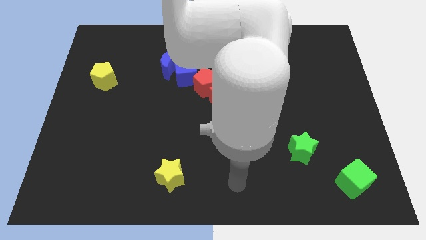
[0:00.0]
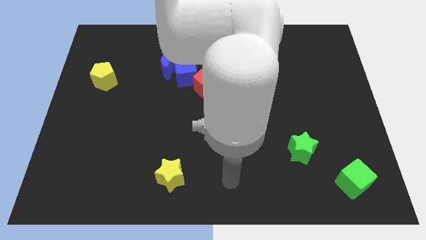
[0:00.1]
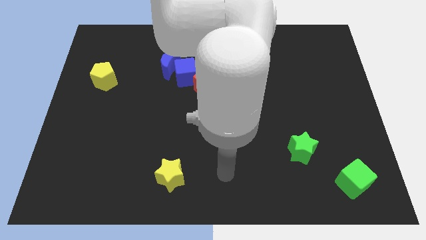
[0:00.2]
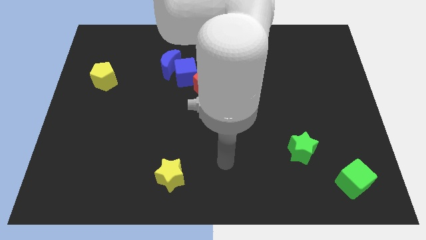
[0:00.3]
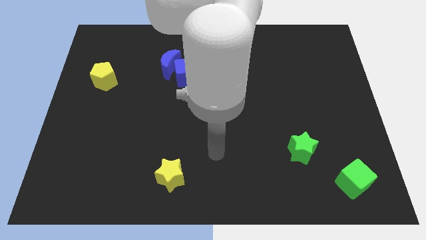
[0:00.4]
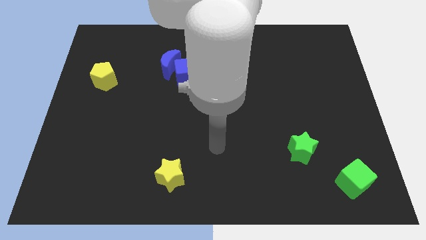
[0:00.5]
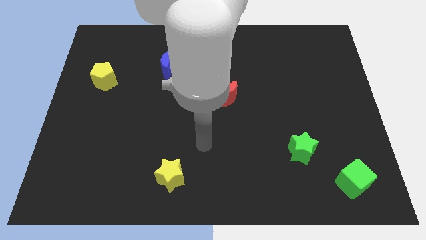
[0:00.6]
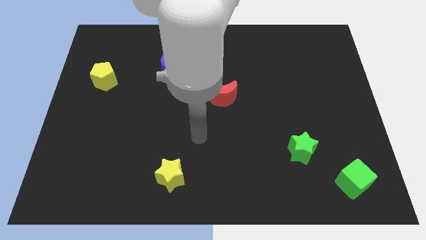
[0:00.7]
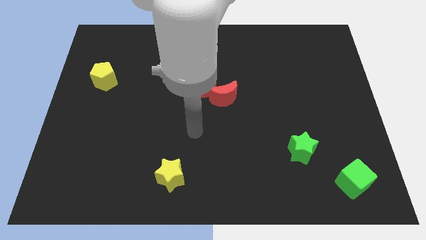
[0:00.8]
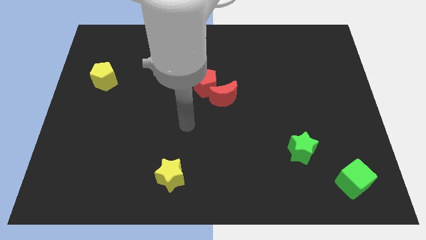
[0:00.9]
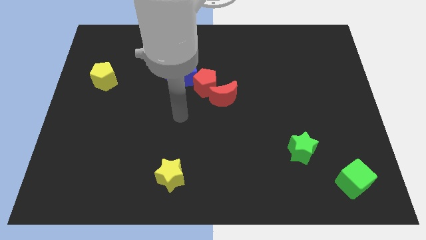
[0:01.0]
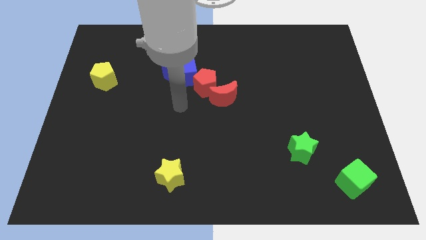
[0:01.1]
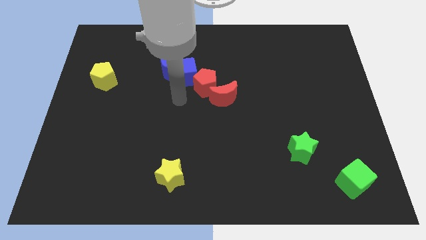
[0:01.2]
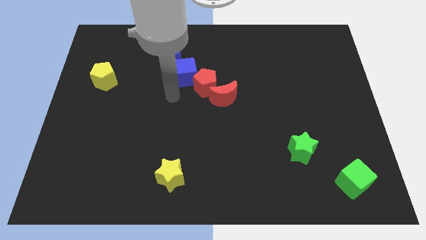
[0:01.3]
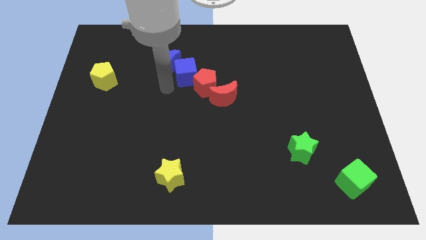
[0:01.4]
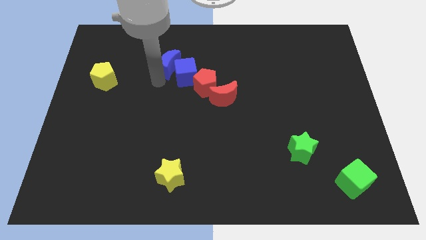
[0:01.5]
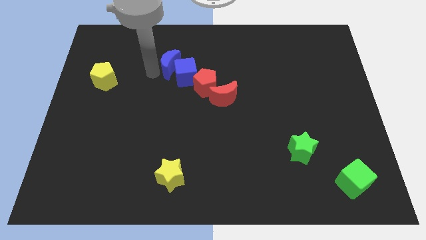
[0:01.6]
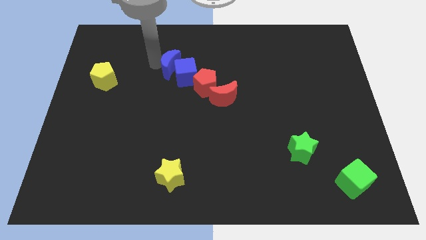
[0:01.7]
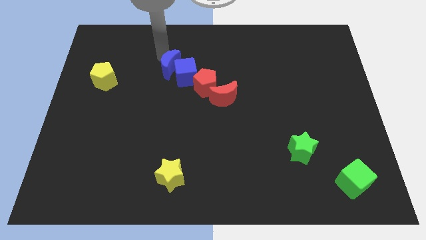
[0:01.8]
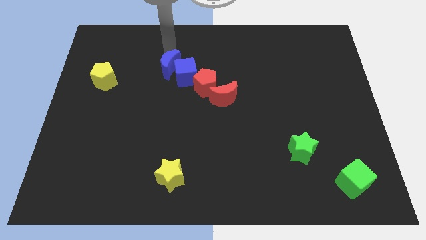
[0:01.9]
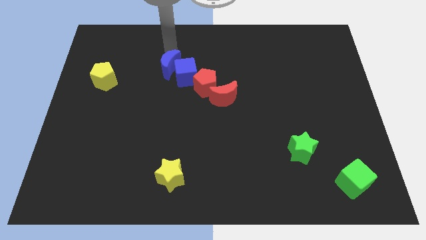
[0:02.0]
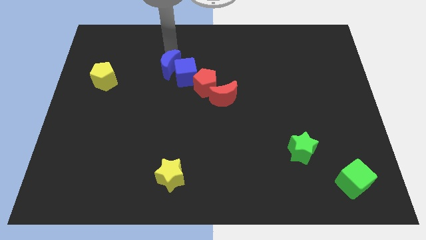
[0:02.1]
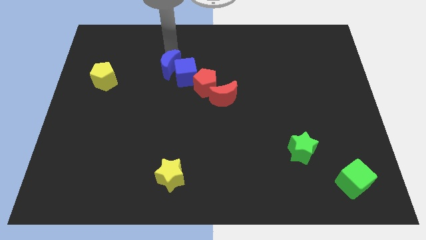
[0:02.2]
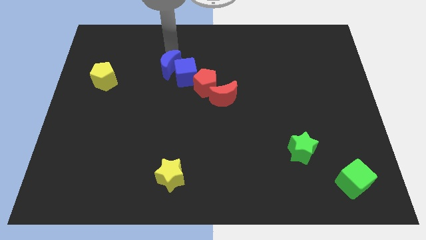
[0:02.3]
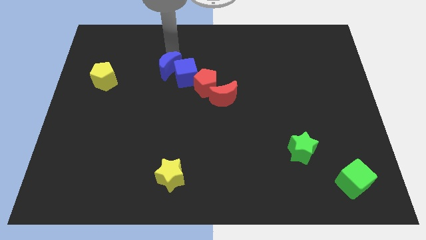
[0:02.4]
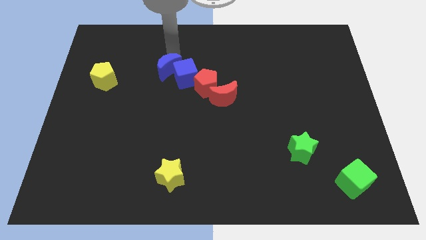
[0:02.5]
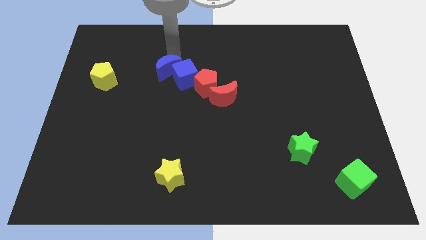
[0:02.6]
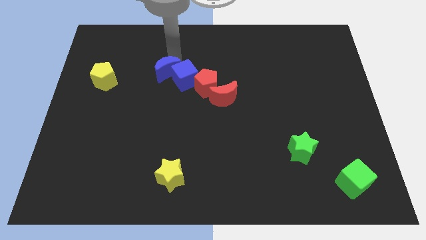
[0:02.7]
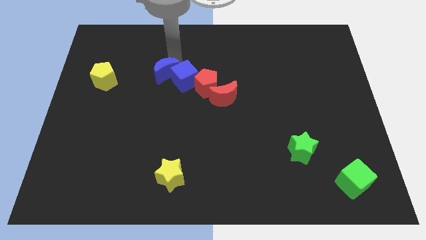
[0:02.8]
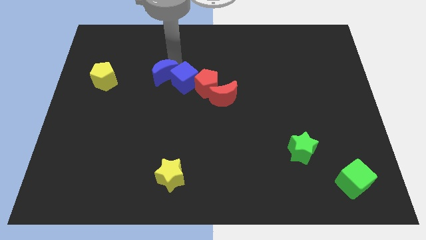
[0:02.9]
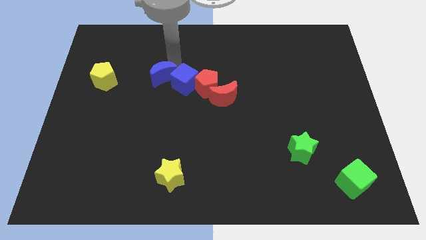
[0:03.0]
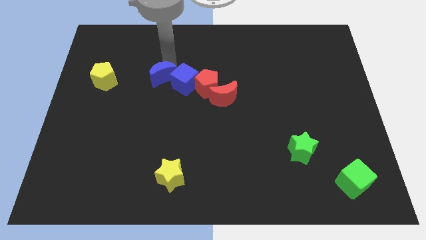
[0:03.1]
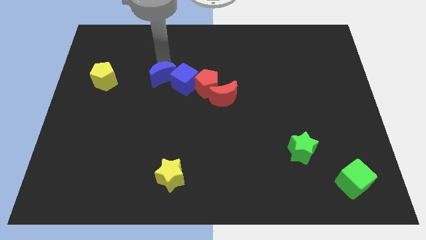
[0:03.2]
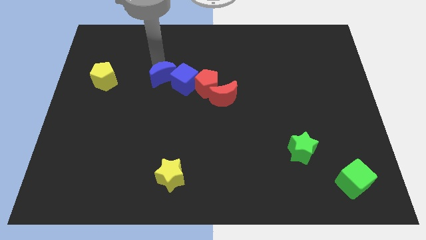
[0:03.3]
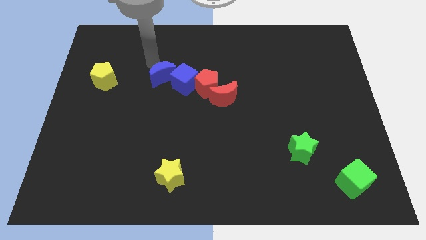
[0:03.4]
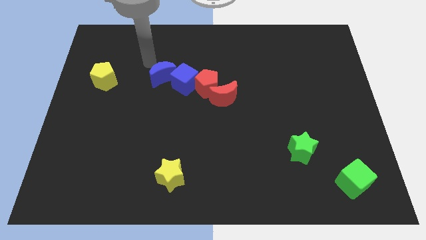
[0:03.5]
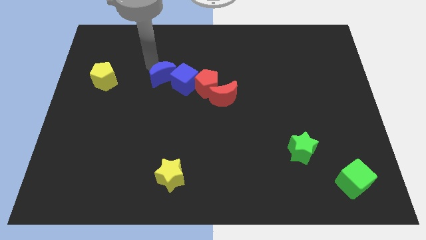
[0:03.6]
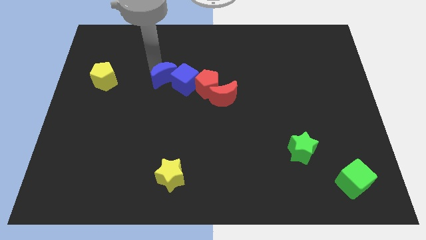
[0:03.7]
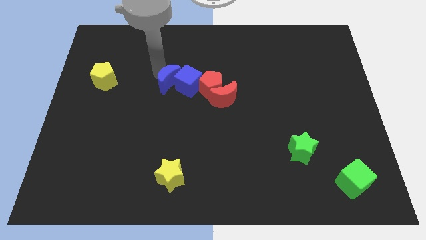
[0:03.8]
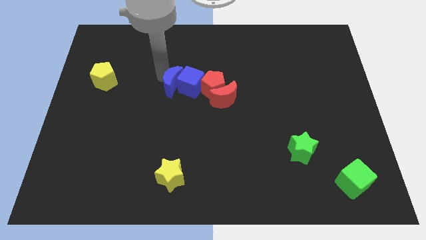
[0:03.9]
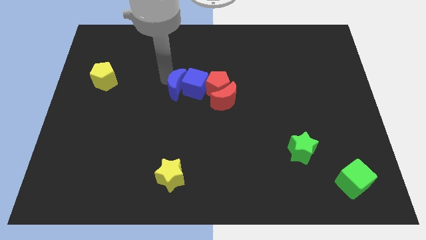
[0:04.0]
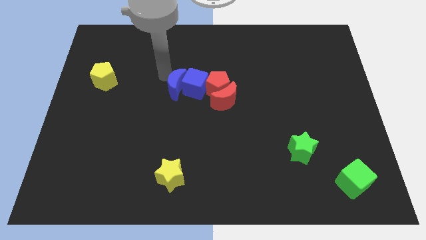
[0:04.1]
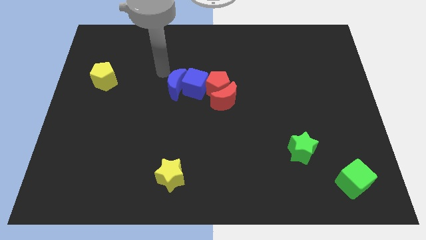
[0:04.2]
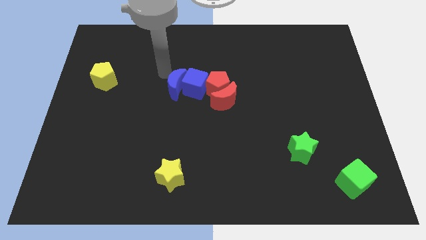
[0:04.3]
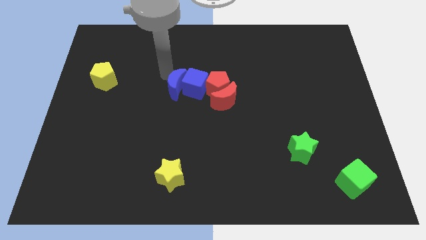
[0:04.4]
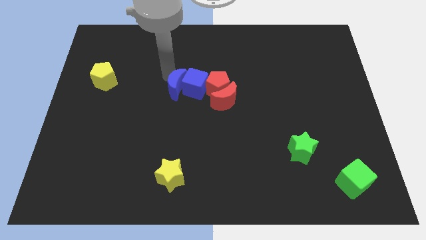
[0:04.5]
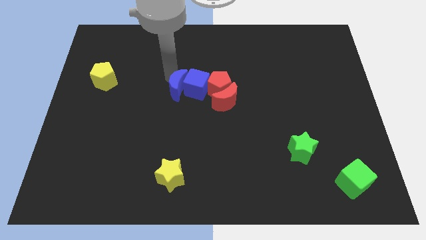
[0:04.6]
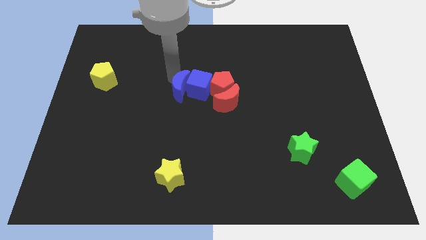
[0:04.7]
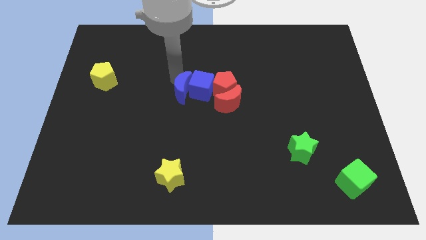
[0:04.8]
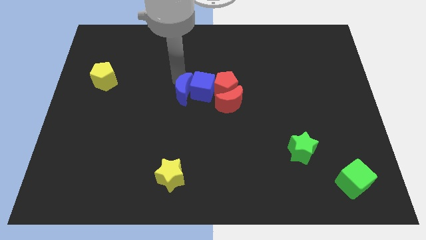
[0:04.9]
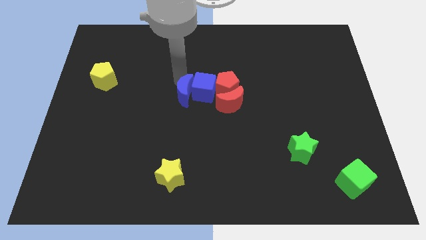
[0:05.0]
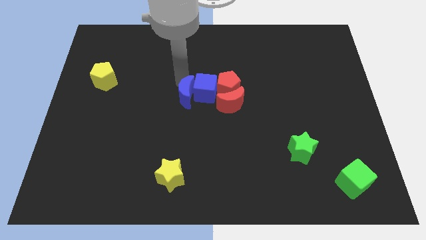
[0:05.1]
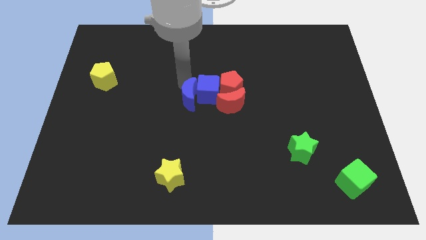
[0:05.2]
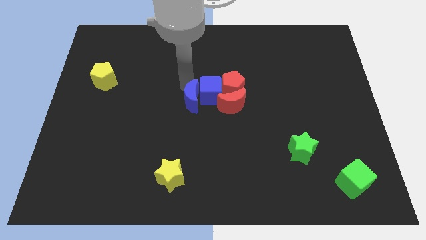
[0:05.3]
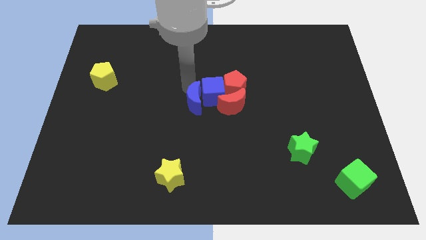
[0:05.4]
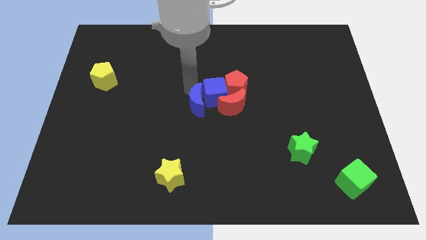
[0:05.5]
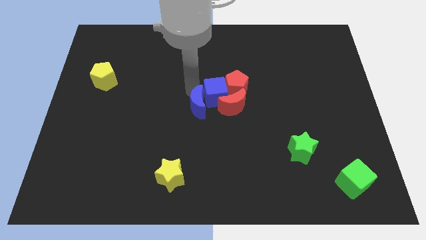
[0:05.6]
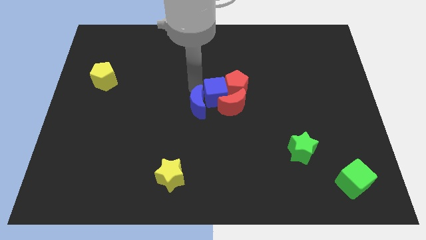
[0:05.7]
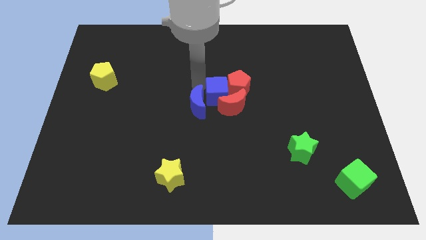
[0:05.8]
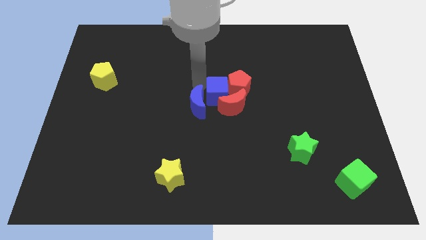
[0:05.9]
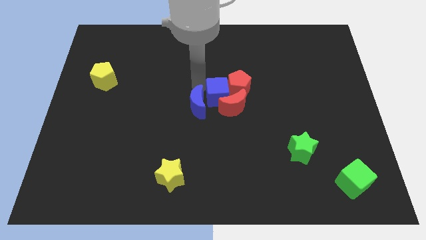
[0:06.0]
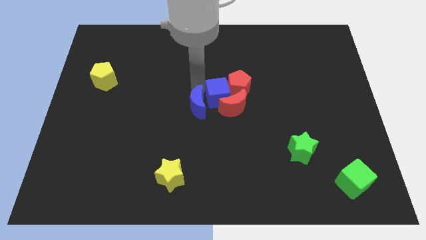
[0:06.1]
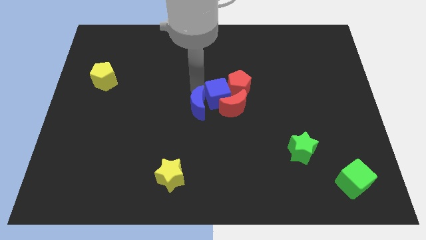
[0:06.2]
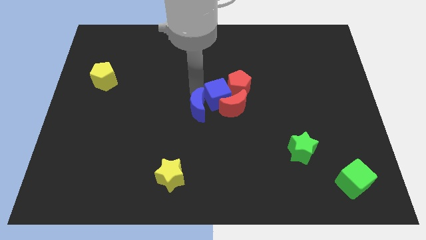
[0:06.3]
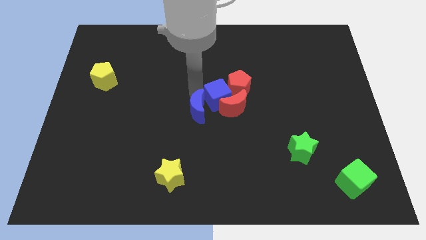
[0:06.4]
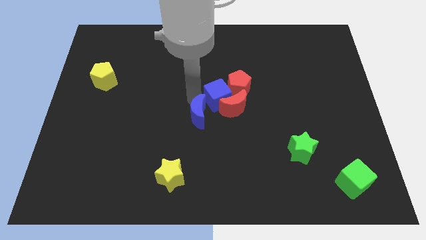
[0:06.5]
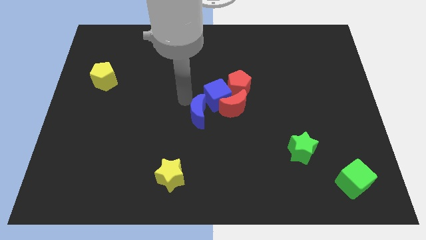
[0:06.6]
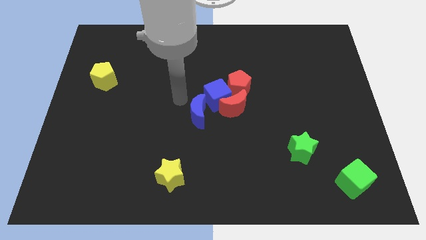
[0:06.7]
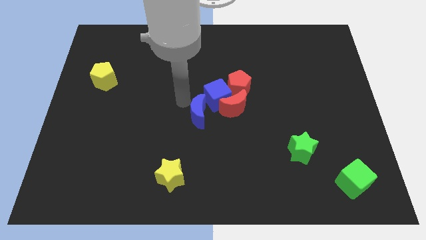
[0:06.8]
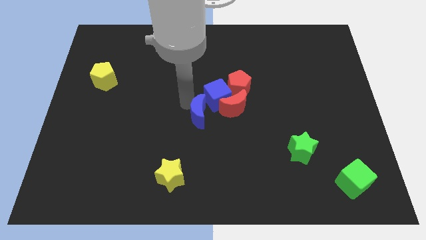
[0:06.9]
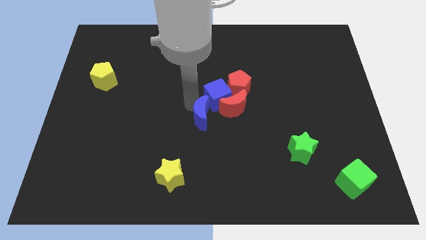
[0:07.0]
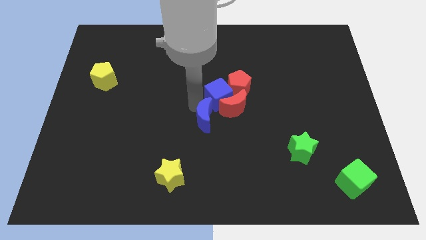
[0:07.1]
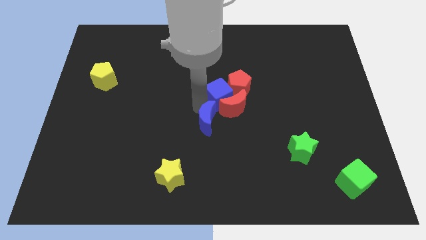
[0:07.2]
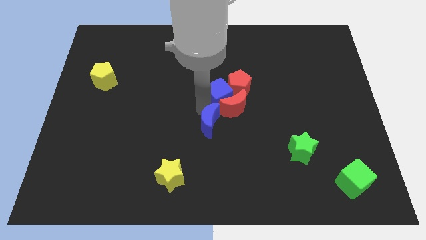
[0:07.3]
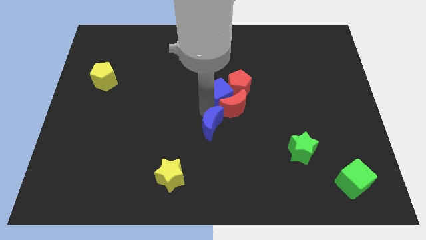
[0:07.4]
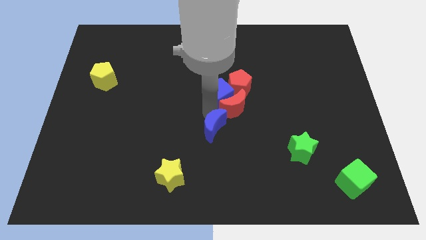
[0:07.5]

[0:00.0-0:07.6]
push the blue moon below the red moon
